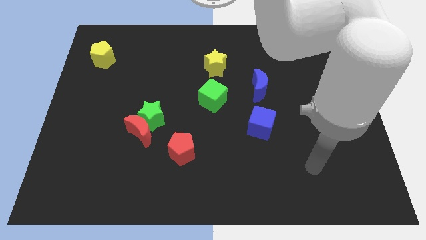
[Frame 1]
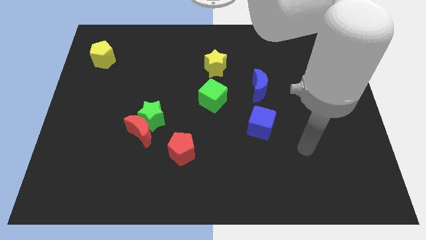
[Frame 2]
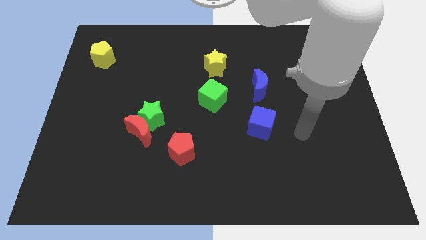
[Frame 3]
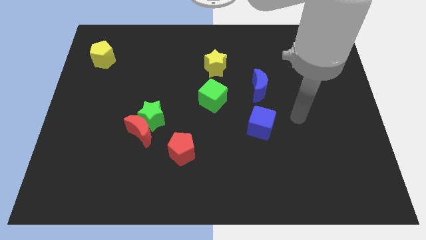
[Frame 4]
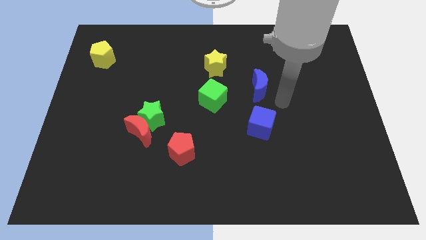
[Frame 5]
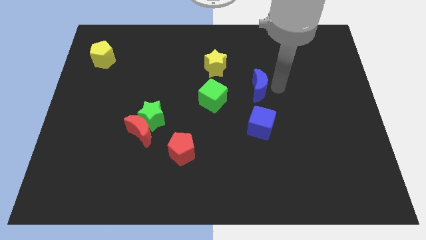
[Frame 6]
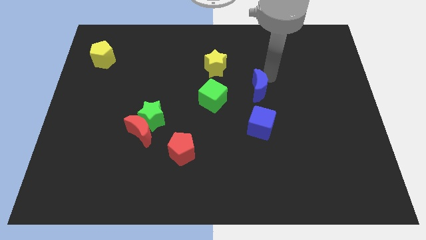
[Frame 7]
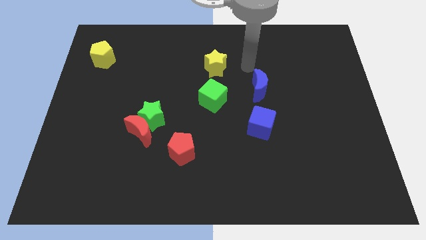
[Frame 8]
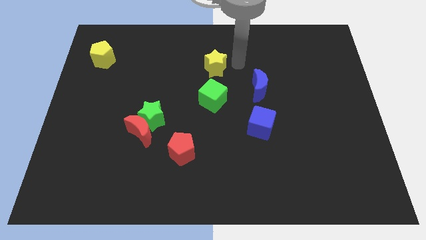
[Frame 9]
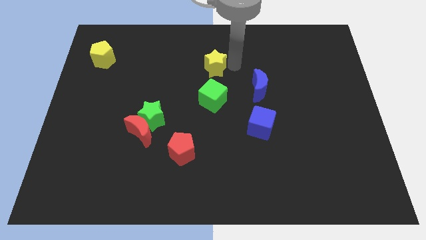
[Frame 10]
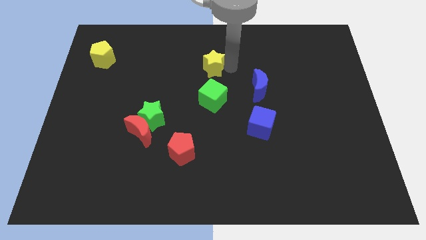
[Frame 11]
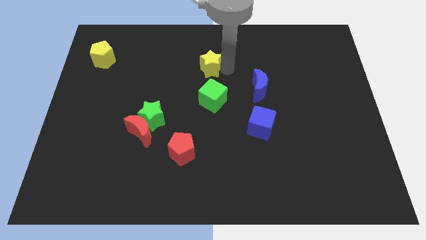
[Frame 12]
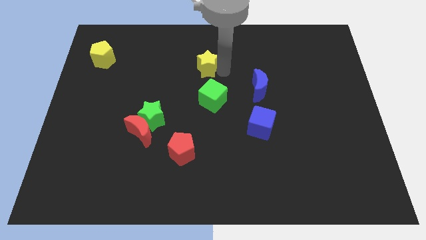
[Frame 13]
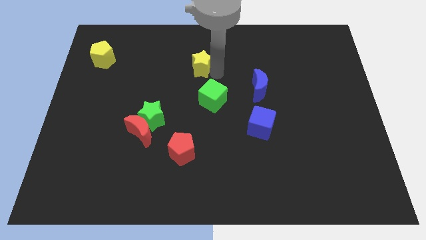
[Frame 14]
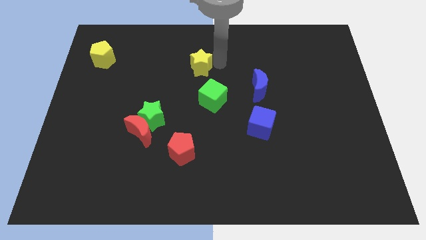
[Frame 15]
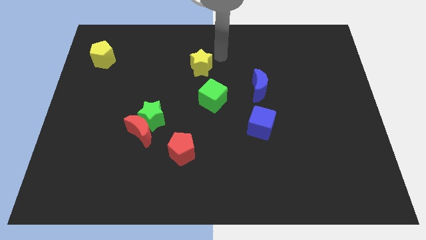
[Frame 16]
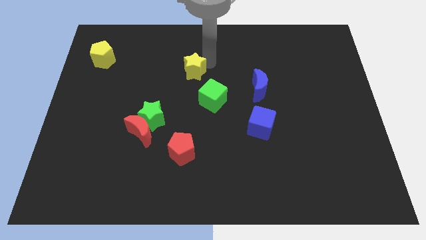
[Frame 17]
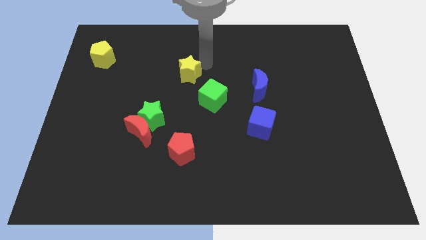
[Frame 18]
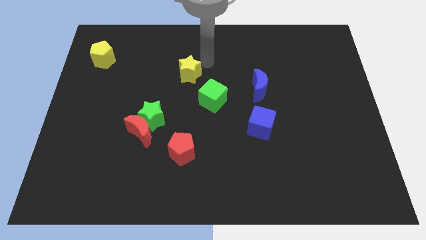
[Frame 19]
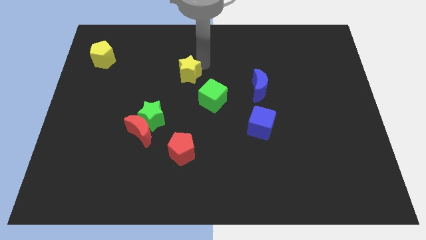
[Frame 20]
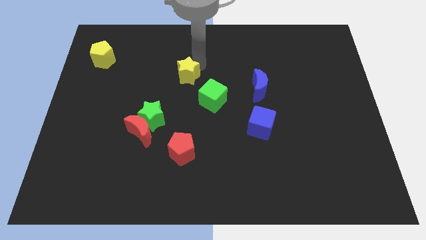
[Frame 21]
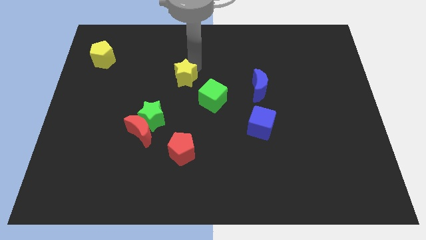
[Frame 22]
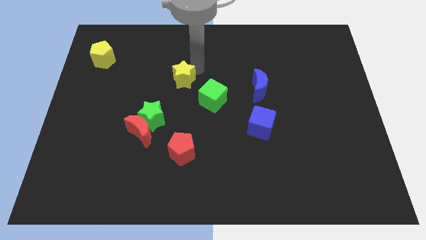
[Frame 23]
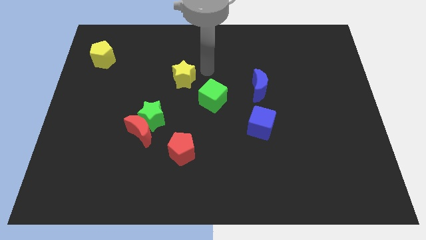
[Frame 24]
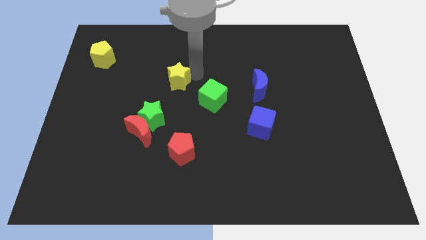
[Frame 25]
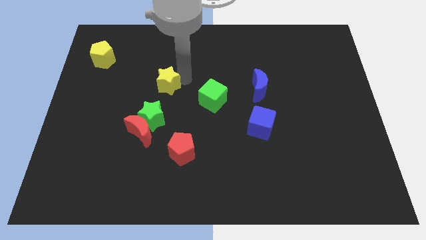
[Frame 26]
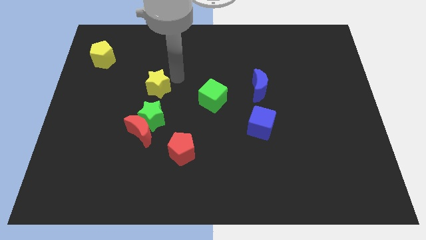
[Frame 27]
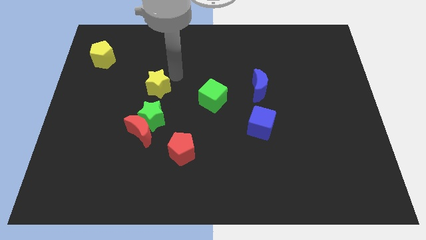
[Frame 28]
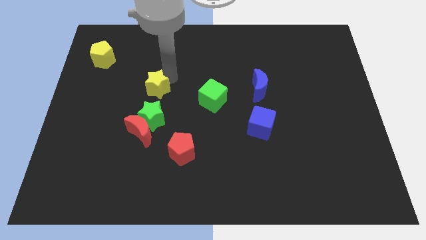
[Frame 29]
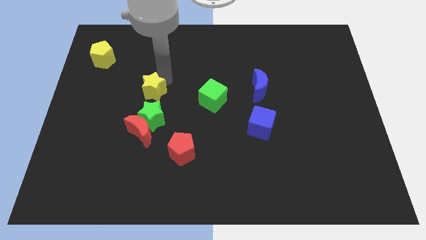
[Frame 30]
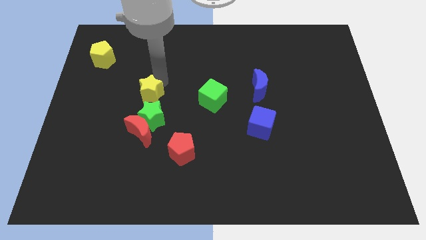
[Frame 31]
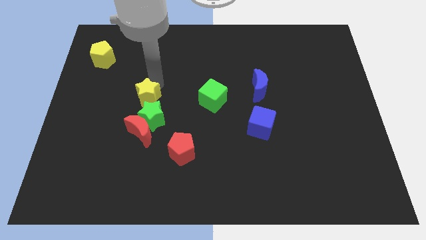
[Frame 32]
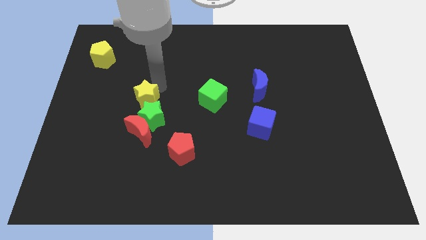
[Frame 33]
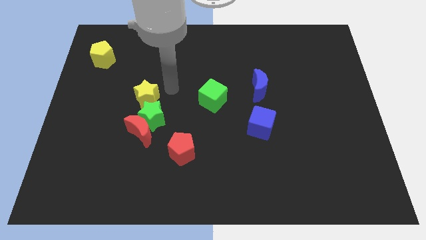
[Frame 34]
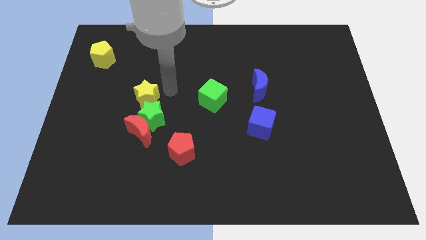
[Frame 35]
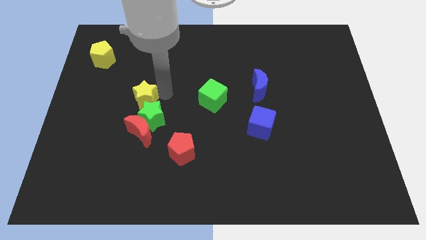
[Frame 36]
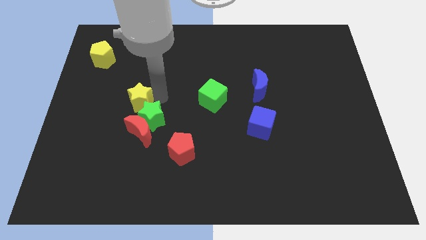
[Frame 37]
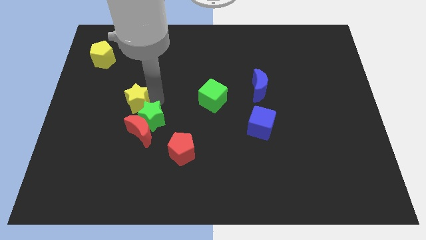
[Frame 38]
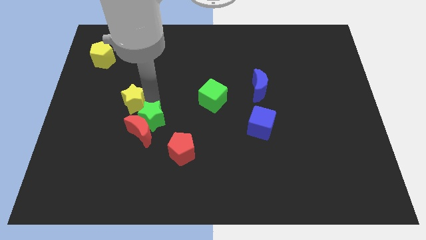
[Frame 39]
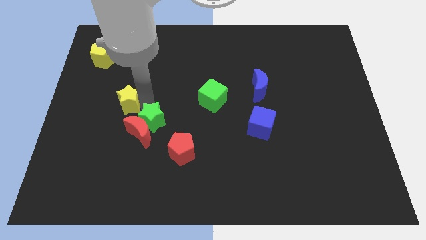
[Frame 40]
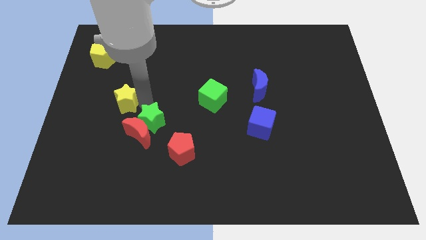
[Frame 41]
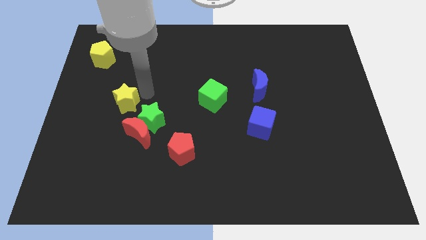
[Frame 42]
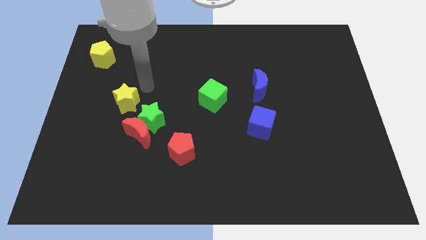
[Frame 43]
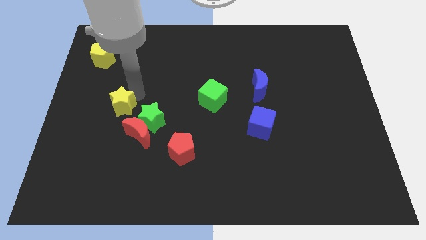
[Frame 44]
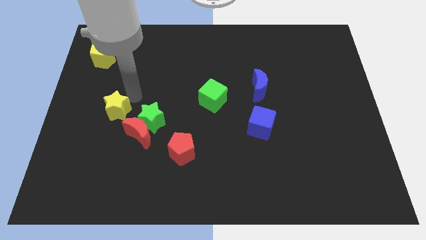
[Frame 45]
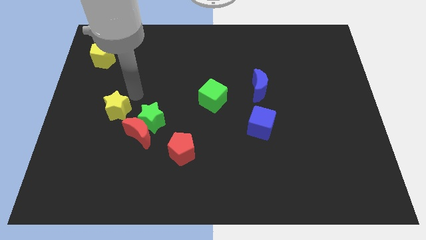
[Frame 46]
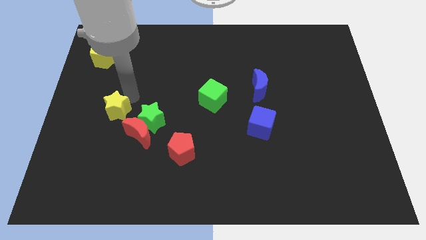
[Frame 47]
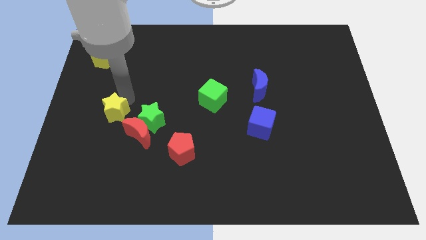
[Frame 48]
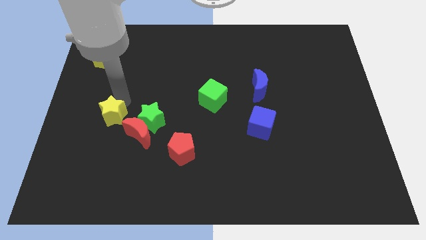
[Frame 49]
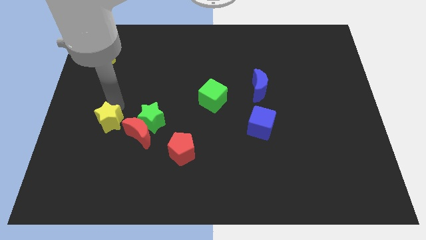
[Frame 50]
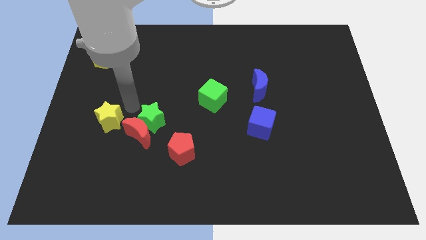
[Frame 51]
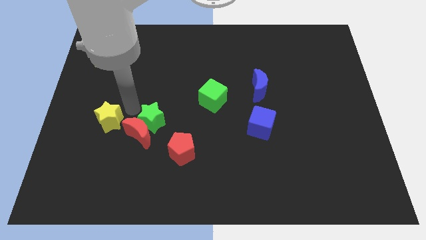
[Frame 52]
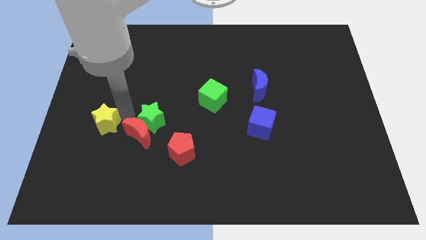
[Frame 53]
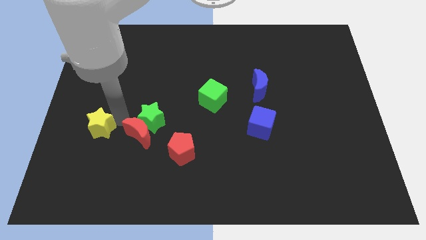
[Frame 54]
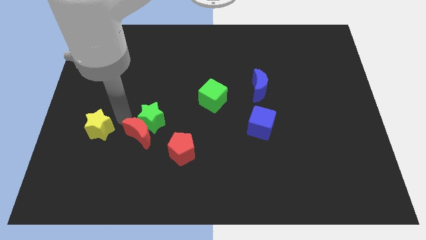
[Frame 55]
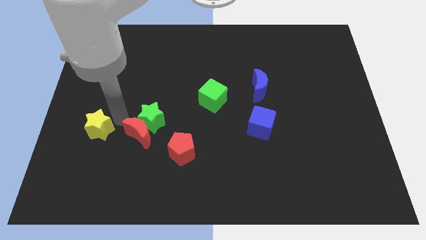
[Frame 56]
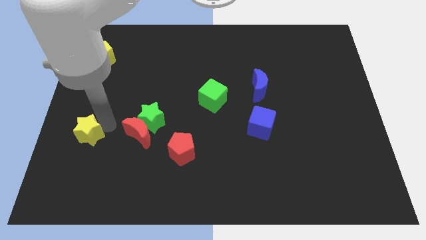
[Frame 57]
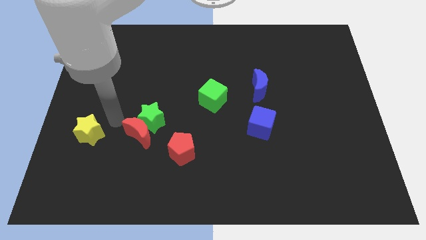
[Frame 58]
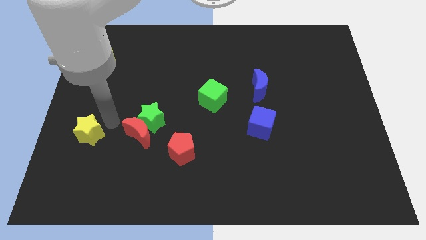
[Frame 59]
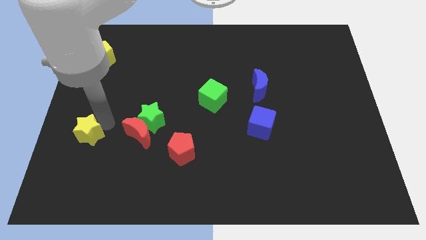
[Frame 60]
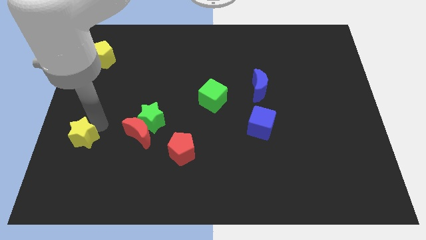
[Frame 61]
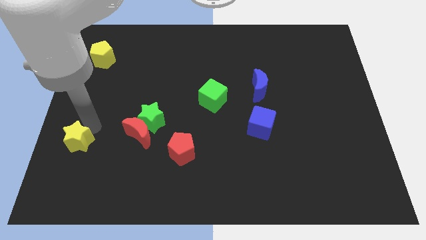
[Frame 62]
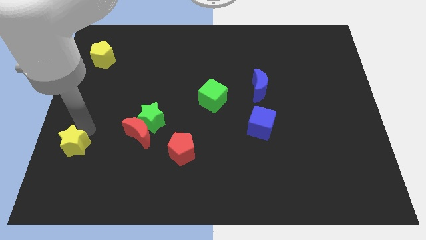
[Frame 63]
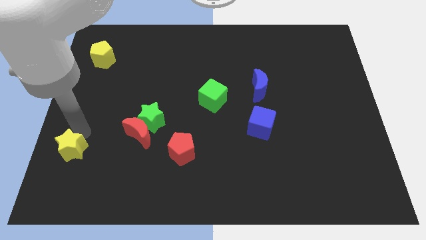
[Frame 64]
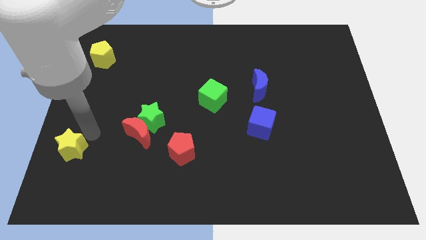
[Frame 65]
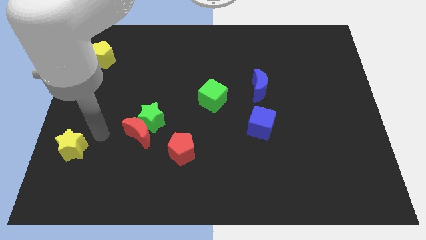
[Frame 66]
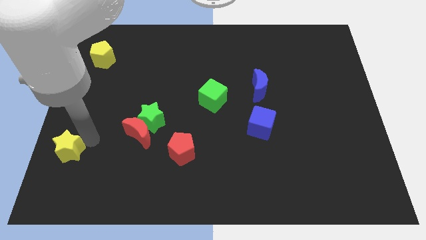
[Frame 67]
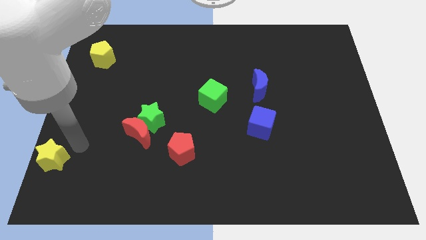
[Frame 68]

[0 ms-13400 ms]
put the yellow star to the bottom left of the board
